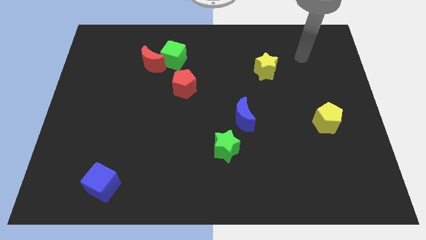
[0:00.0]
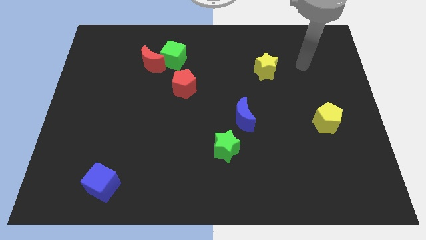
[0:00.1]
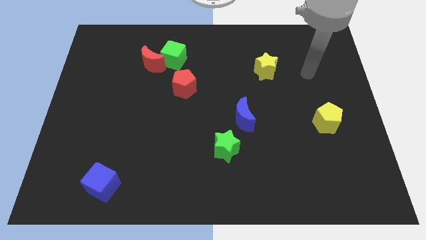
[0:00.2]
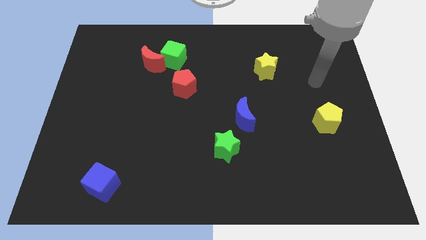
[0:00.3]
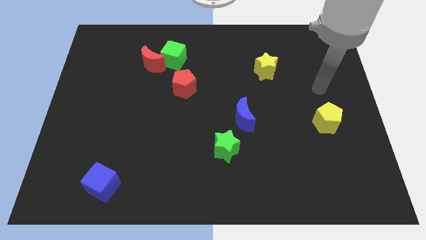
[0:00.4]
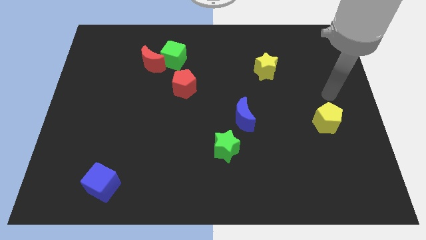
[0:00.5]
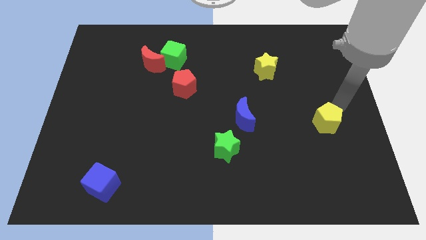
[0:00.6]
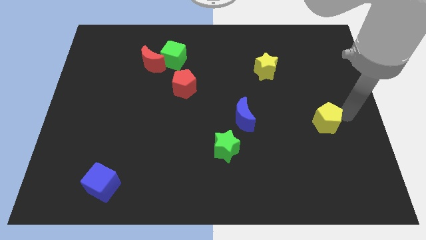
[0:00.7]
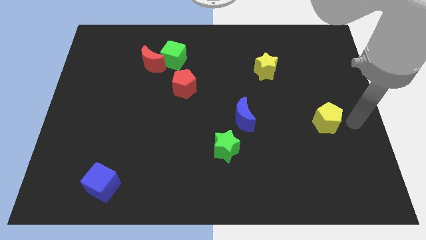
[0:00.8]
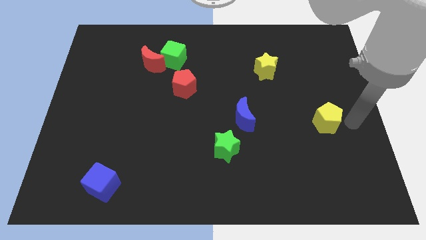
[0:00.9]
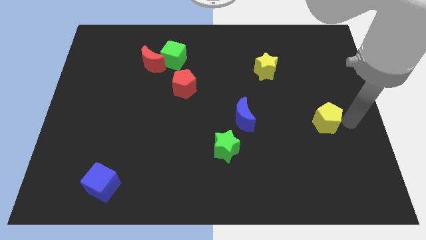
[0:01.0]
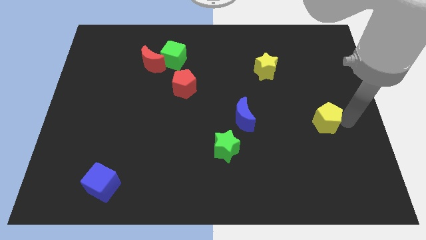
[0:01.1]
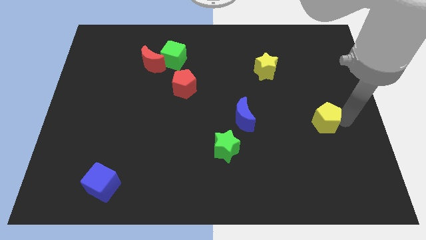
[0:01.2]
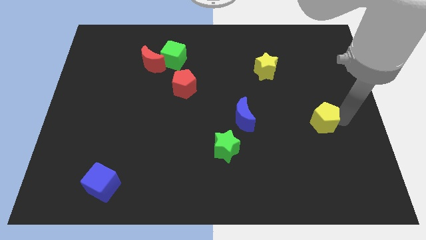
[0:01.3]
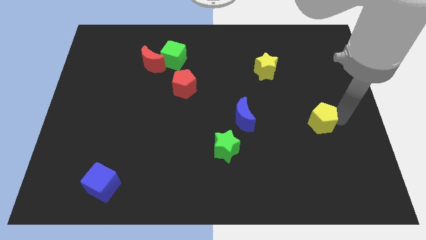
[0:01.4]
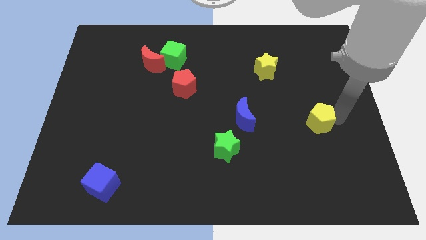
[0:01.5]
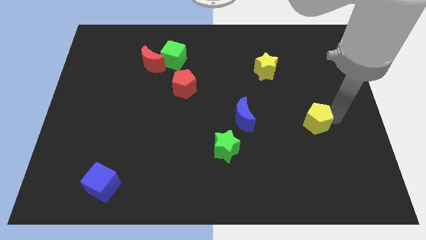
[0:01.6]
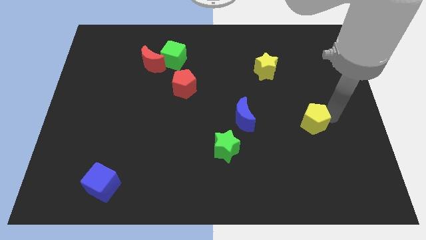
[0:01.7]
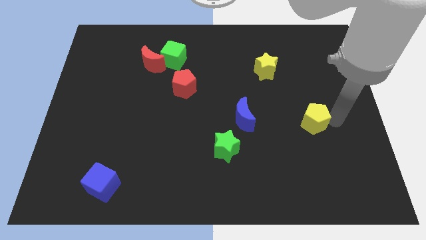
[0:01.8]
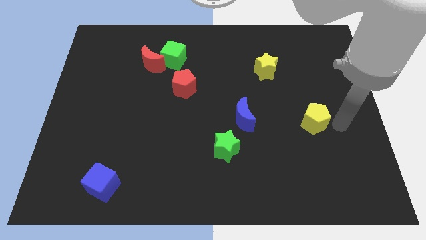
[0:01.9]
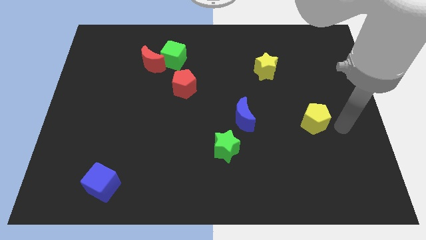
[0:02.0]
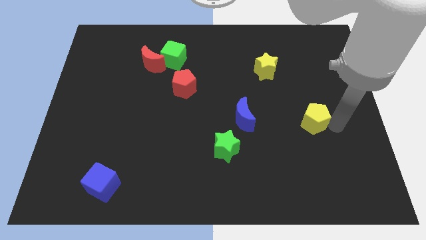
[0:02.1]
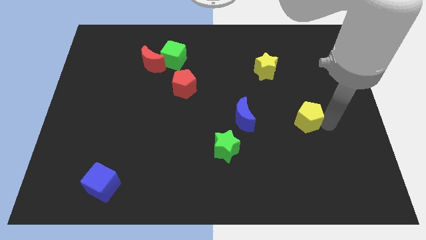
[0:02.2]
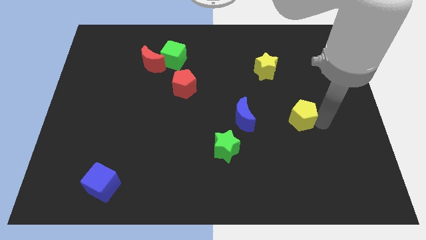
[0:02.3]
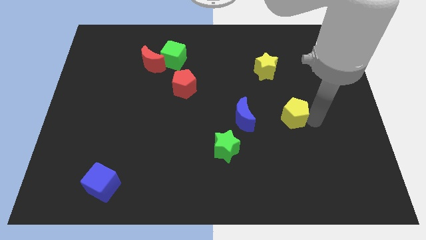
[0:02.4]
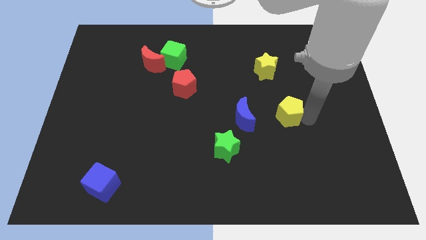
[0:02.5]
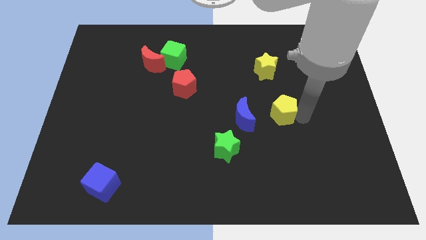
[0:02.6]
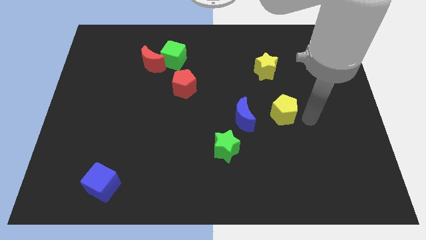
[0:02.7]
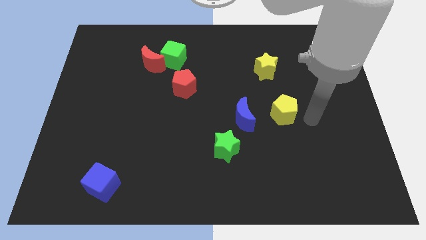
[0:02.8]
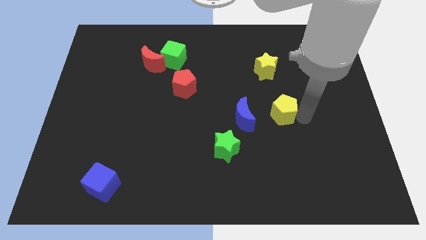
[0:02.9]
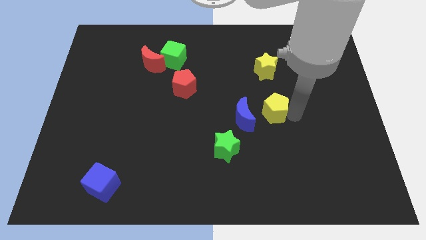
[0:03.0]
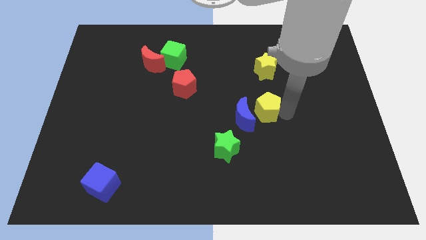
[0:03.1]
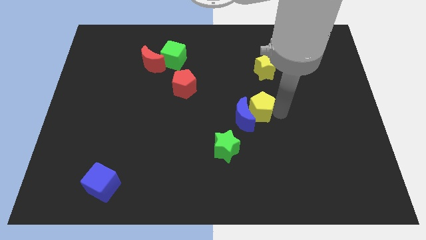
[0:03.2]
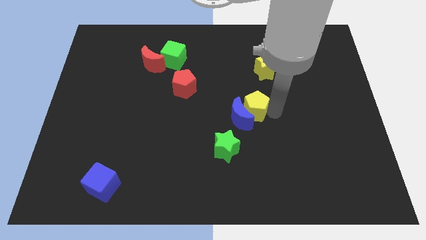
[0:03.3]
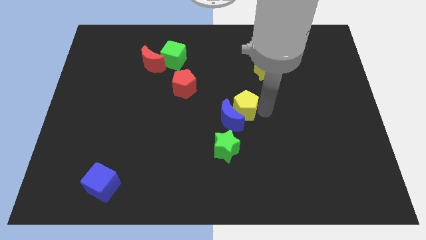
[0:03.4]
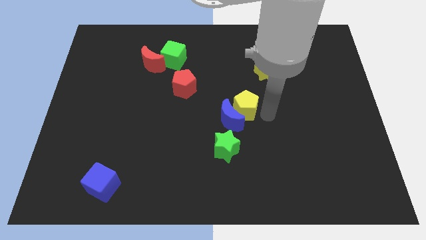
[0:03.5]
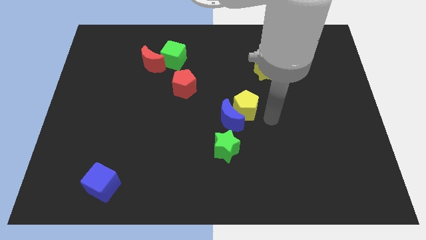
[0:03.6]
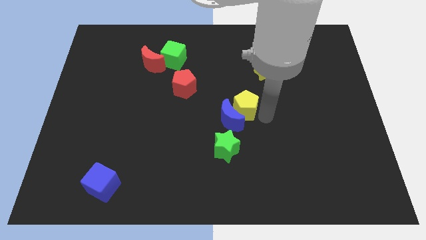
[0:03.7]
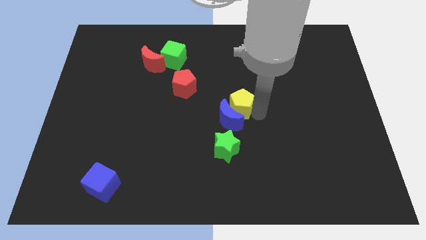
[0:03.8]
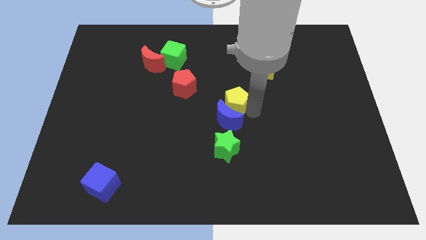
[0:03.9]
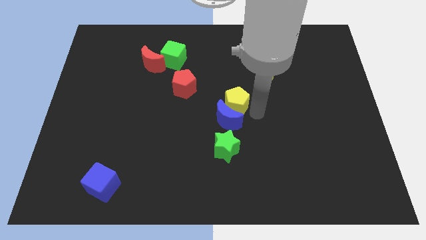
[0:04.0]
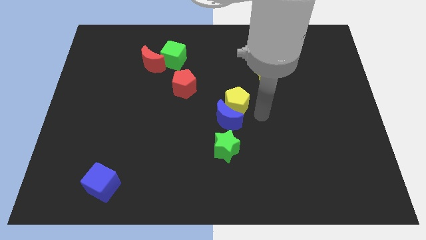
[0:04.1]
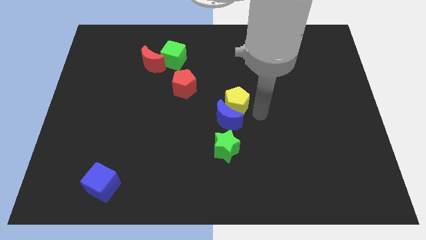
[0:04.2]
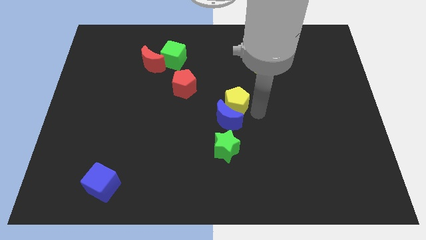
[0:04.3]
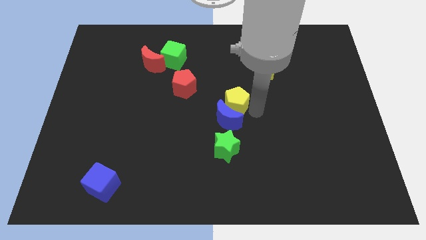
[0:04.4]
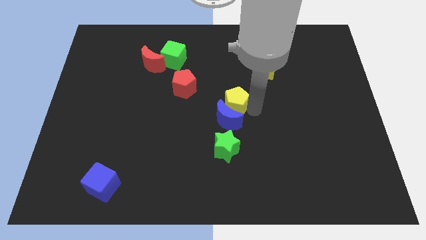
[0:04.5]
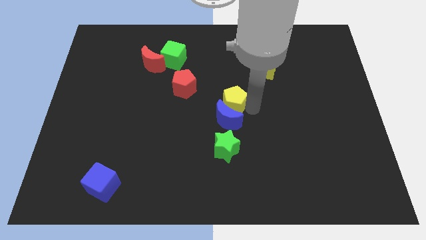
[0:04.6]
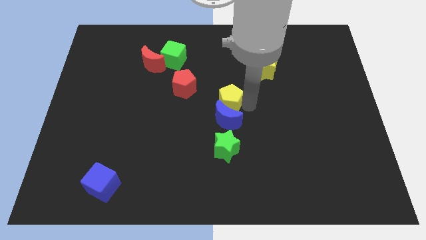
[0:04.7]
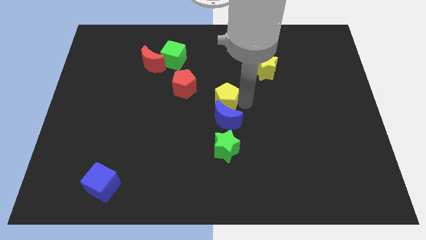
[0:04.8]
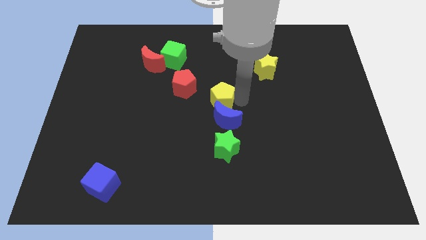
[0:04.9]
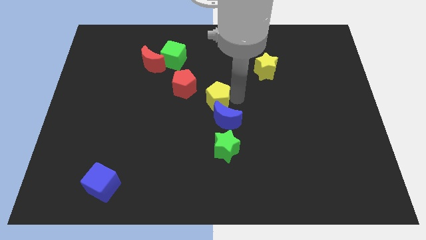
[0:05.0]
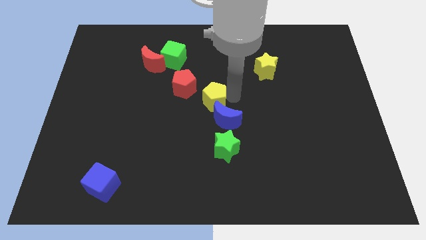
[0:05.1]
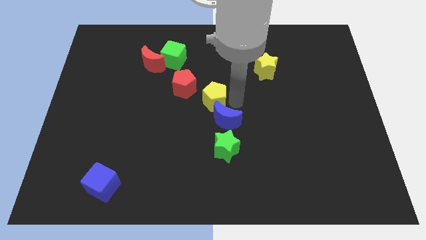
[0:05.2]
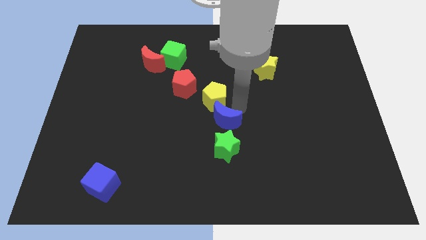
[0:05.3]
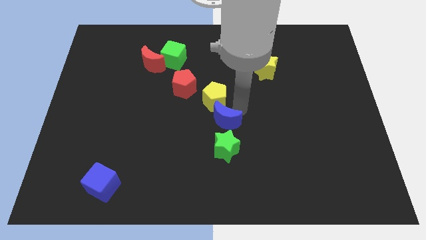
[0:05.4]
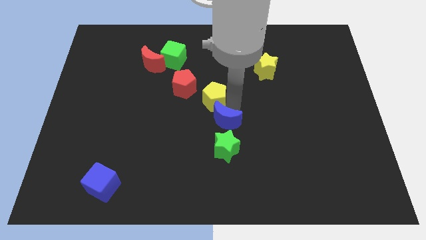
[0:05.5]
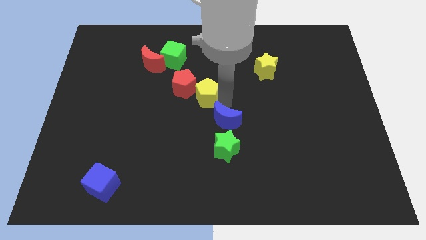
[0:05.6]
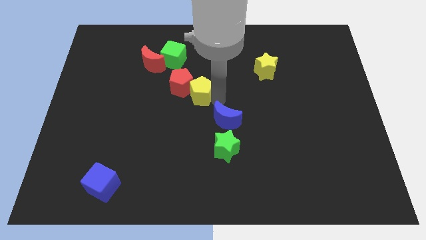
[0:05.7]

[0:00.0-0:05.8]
move the yellow pentagon towards the red pentagon
